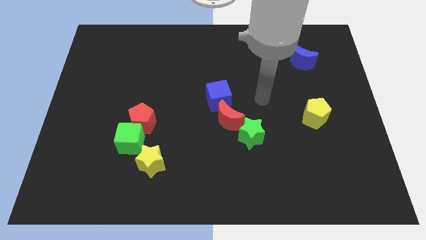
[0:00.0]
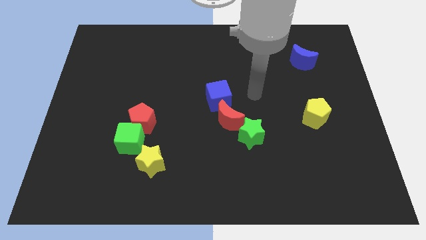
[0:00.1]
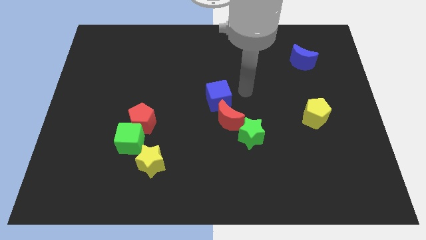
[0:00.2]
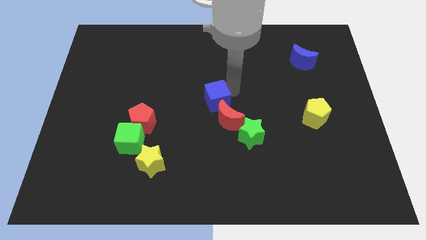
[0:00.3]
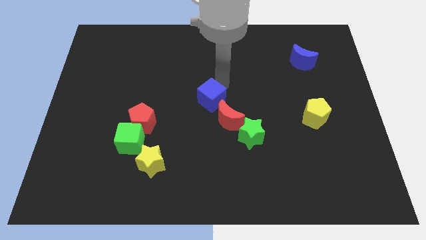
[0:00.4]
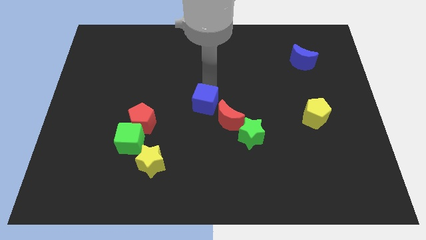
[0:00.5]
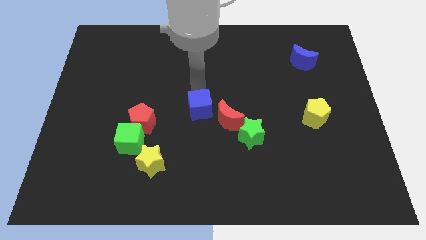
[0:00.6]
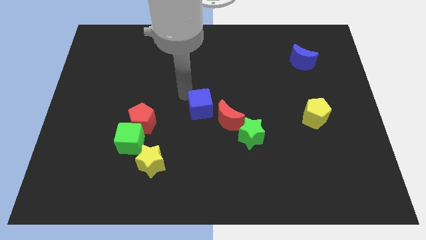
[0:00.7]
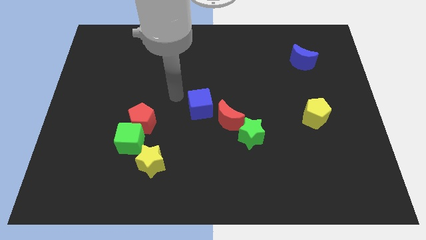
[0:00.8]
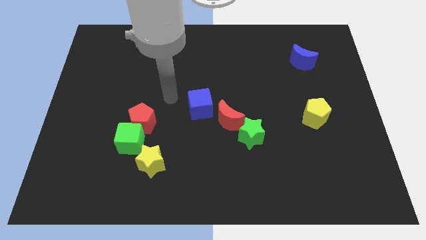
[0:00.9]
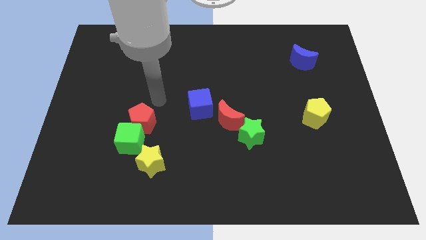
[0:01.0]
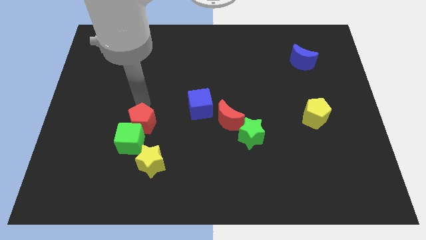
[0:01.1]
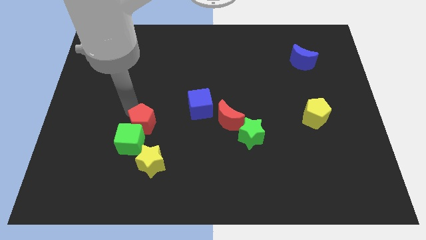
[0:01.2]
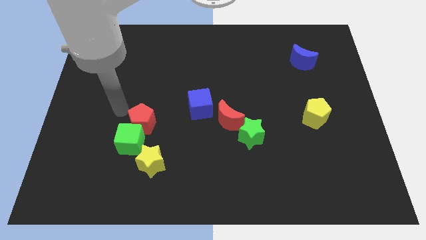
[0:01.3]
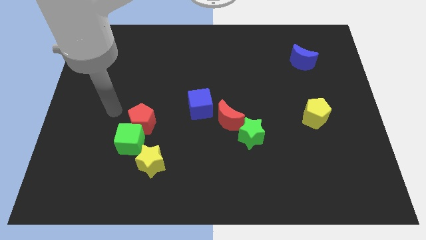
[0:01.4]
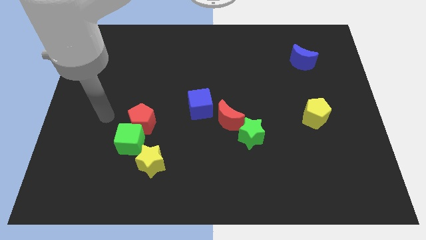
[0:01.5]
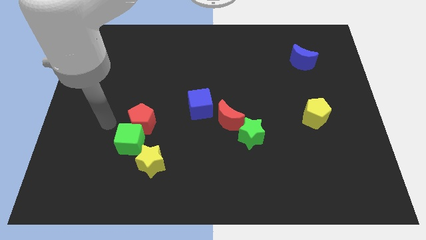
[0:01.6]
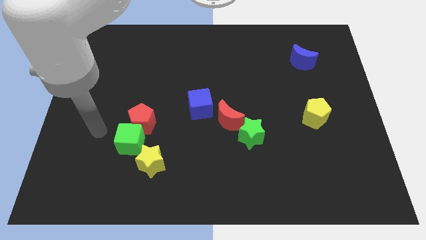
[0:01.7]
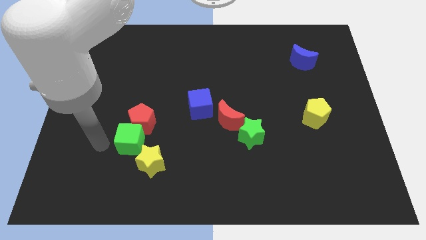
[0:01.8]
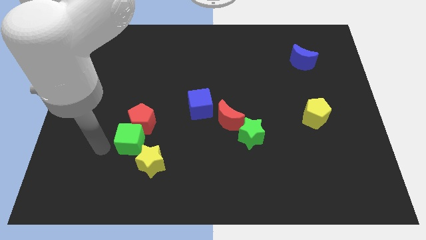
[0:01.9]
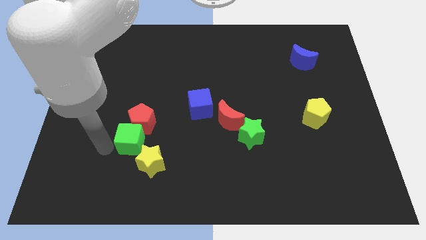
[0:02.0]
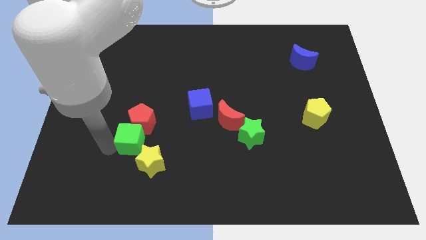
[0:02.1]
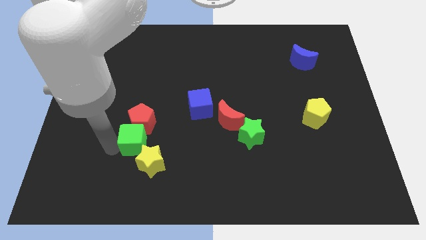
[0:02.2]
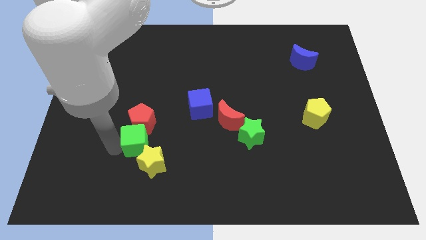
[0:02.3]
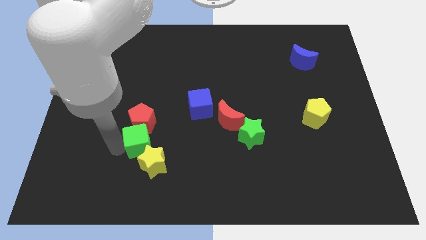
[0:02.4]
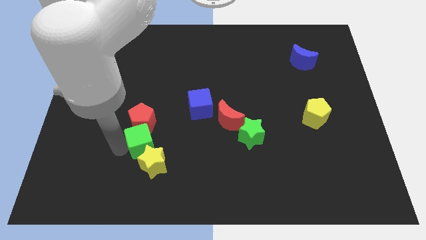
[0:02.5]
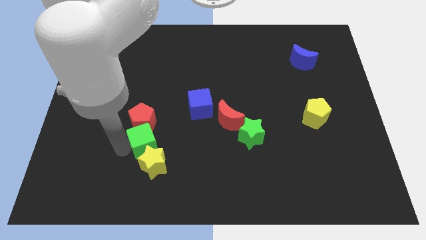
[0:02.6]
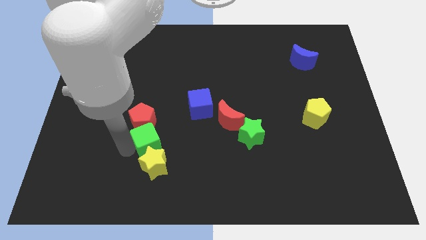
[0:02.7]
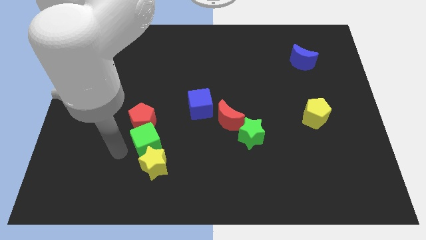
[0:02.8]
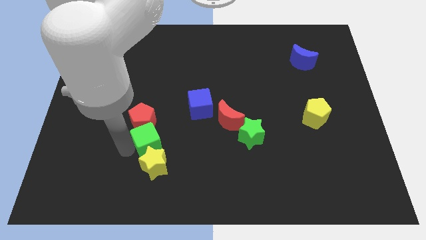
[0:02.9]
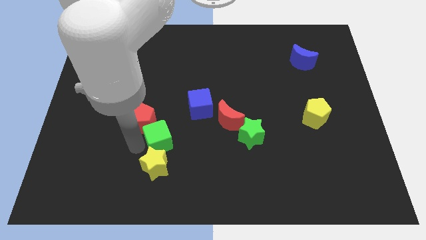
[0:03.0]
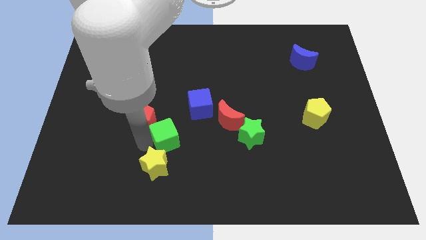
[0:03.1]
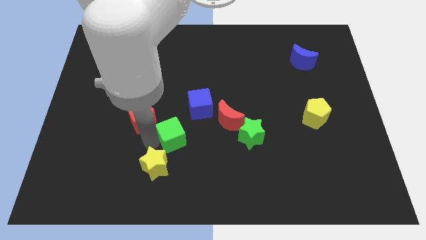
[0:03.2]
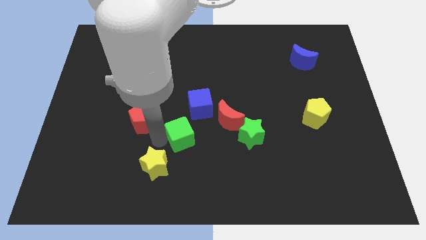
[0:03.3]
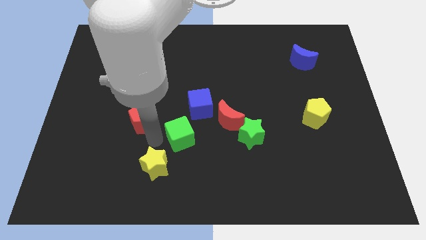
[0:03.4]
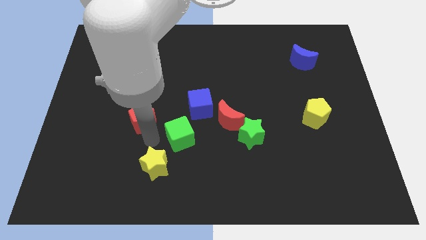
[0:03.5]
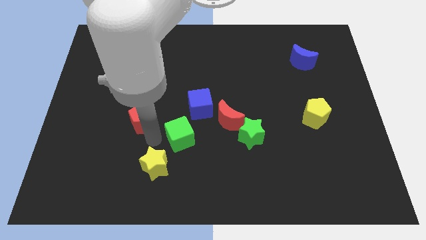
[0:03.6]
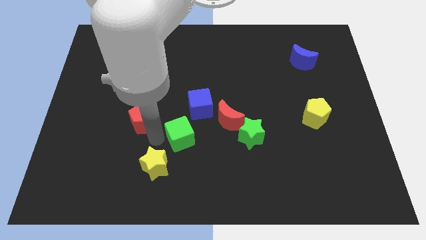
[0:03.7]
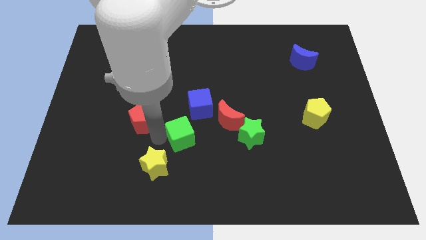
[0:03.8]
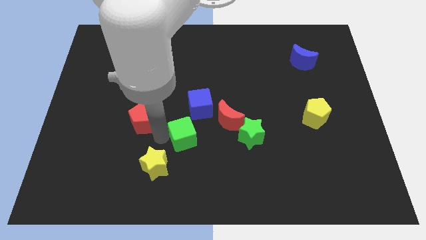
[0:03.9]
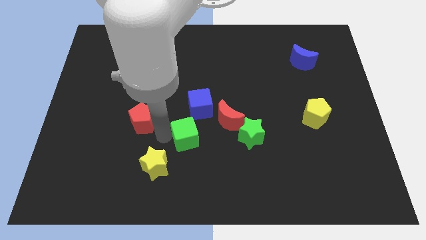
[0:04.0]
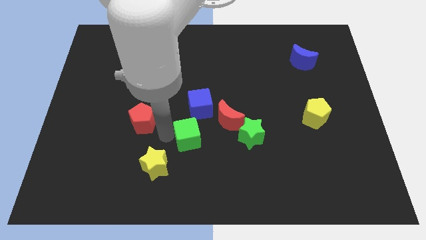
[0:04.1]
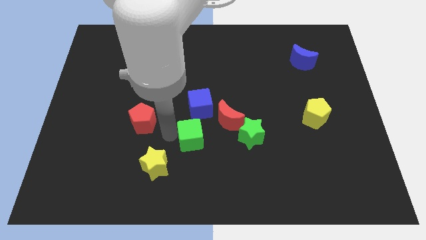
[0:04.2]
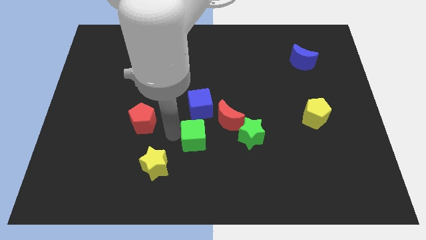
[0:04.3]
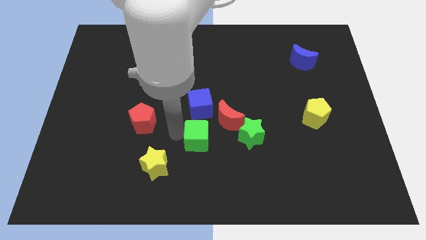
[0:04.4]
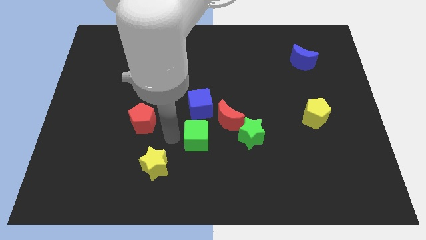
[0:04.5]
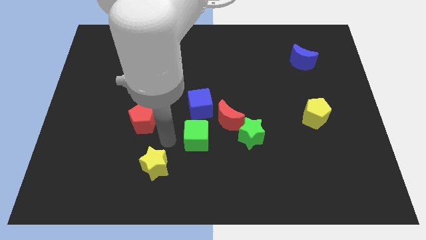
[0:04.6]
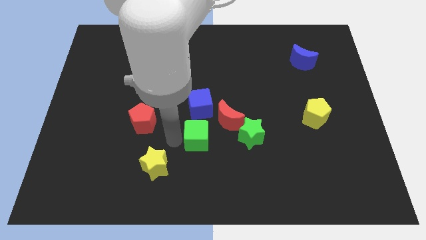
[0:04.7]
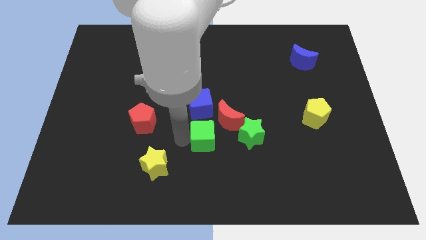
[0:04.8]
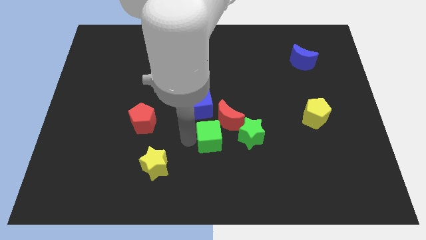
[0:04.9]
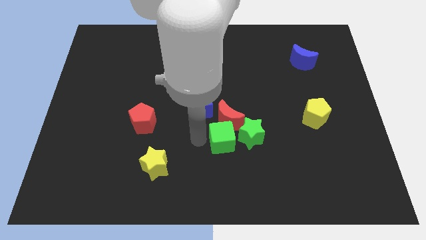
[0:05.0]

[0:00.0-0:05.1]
push the green cube towards the green star

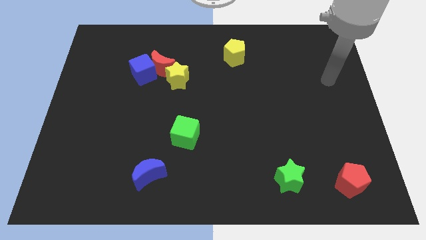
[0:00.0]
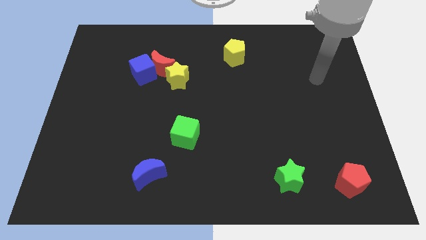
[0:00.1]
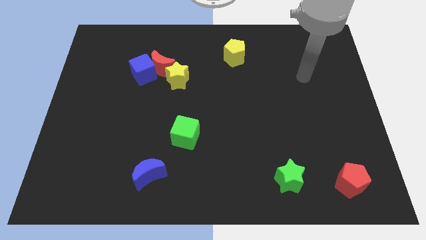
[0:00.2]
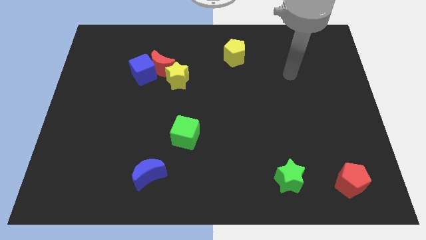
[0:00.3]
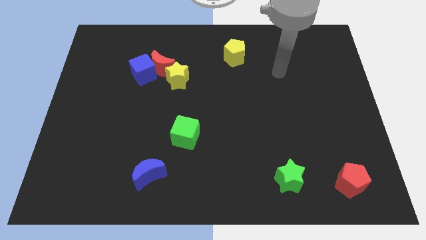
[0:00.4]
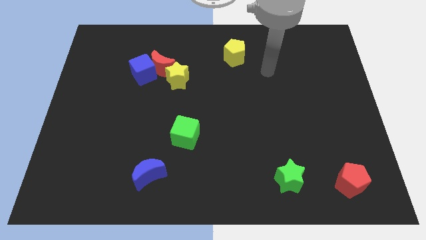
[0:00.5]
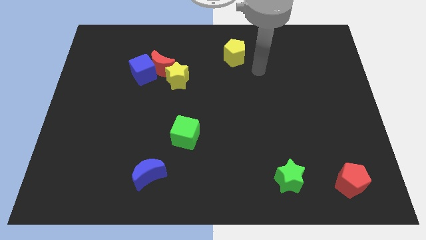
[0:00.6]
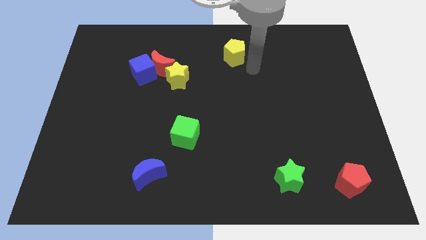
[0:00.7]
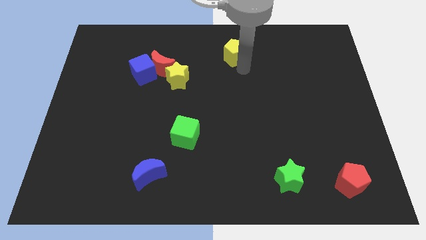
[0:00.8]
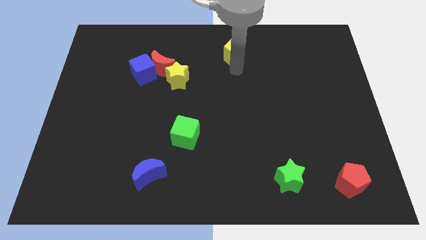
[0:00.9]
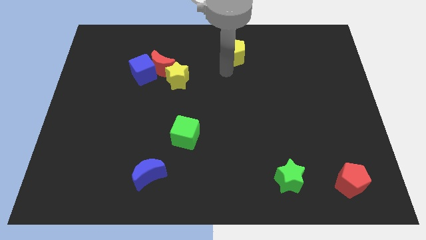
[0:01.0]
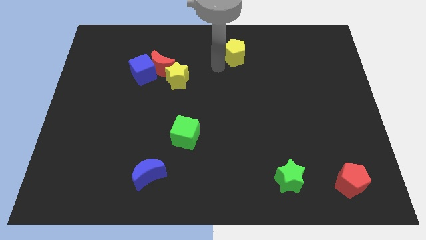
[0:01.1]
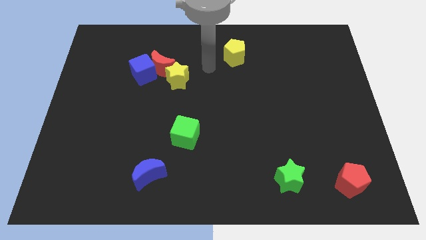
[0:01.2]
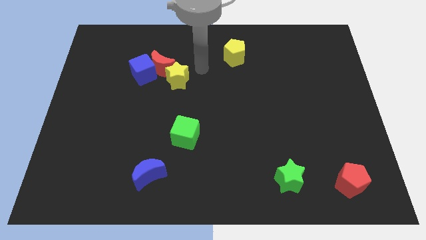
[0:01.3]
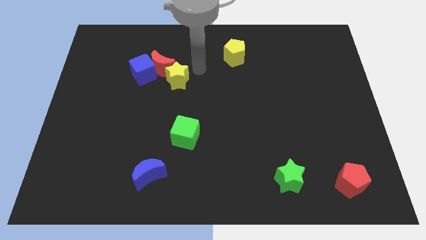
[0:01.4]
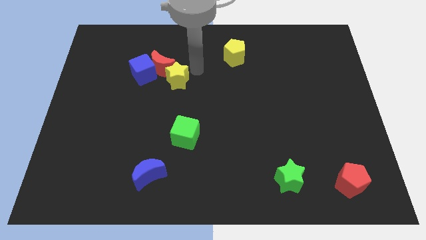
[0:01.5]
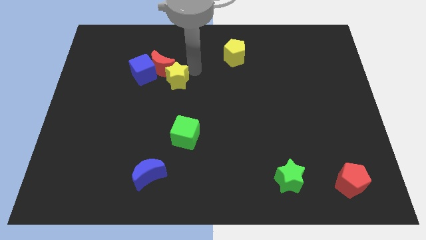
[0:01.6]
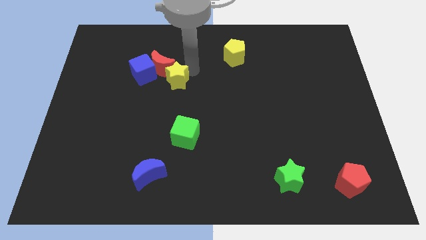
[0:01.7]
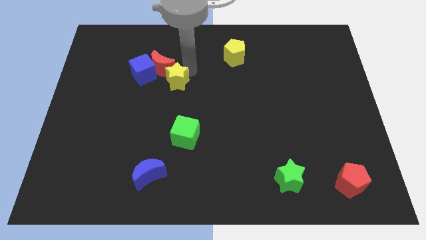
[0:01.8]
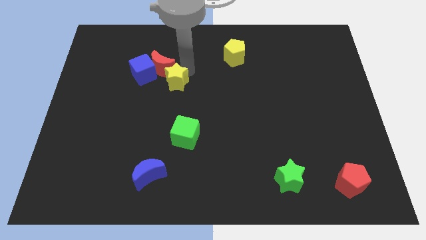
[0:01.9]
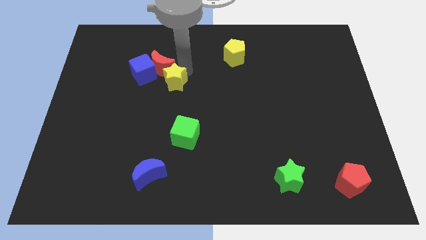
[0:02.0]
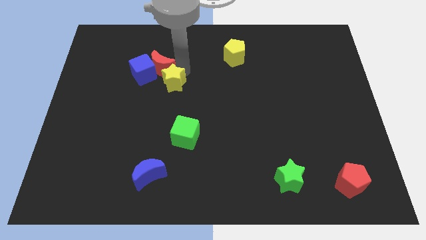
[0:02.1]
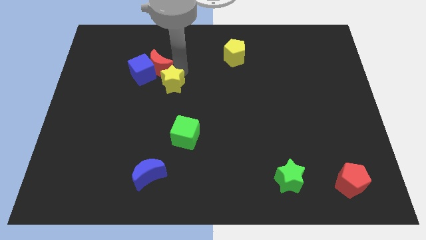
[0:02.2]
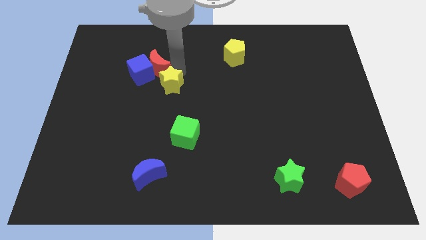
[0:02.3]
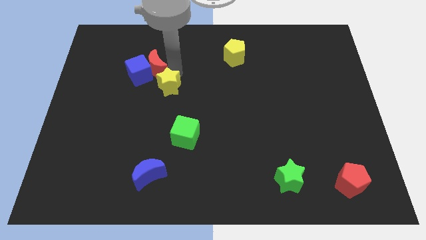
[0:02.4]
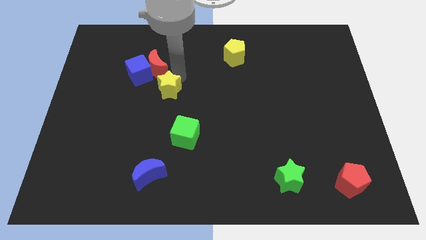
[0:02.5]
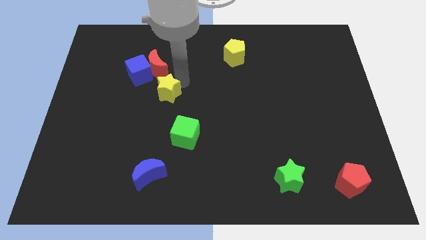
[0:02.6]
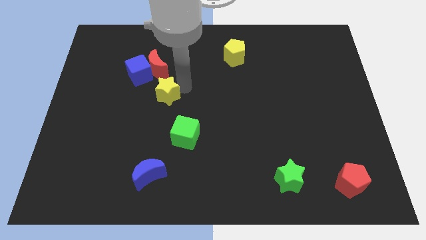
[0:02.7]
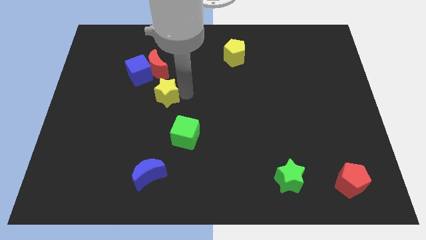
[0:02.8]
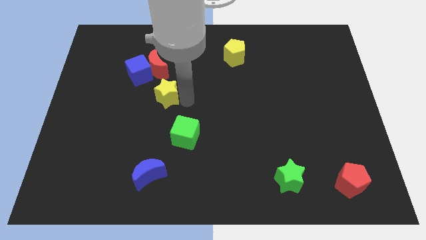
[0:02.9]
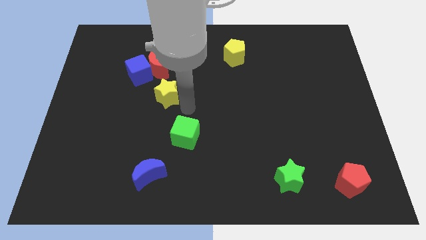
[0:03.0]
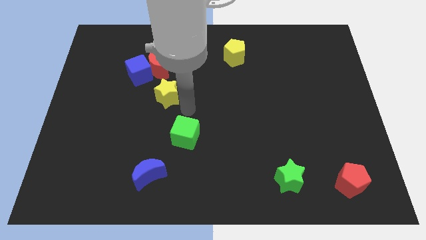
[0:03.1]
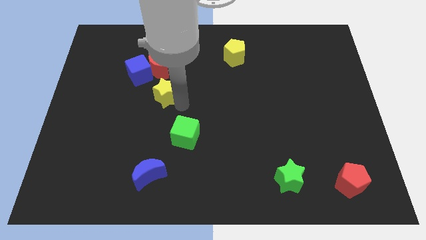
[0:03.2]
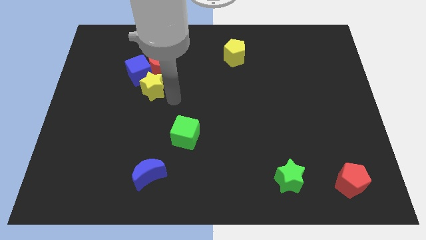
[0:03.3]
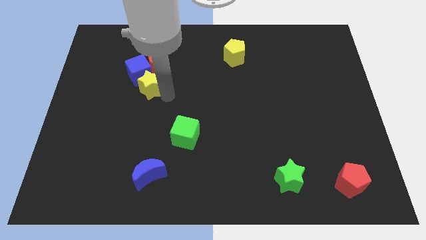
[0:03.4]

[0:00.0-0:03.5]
slide the yellow star to the blue cube
